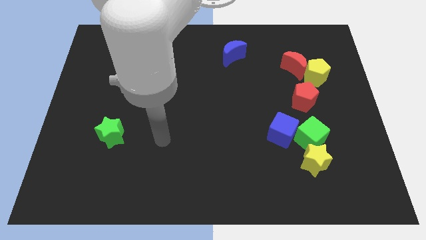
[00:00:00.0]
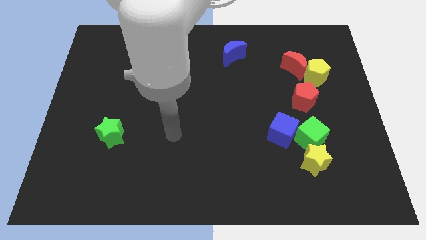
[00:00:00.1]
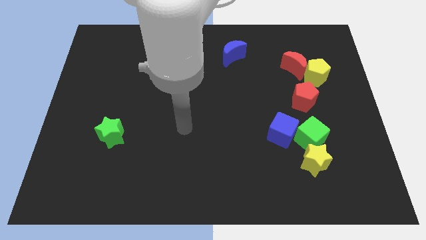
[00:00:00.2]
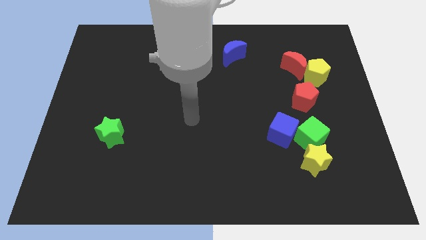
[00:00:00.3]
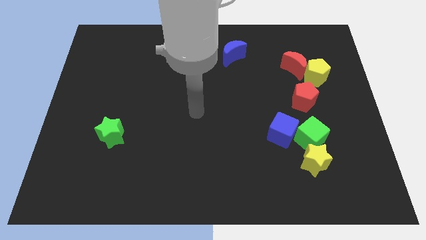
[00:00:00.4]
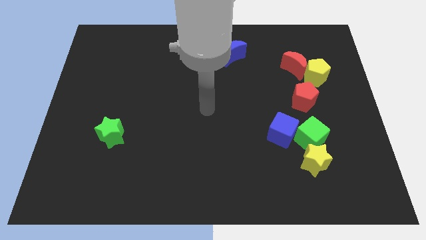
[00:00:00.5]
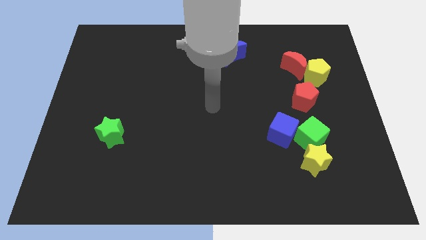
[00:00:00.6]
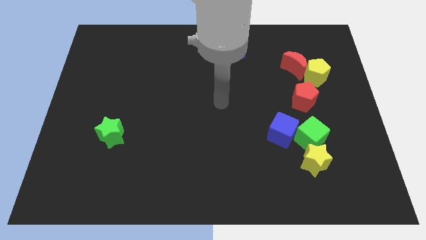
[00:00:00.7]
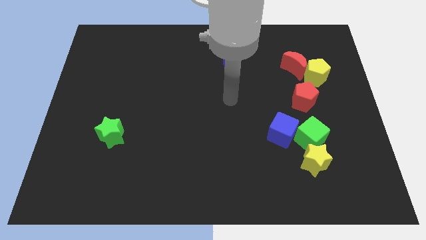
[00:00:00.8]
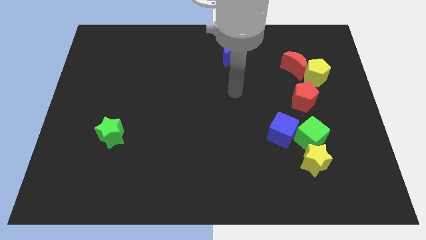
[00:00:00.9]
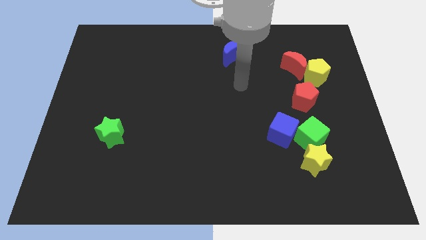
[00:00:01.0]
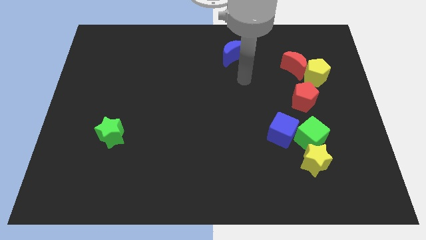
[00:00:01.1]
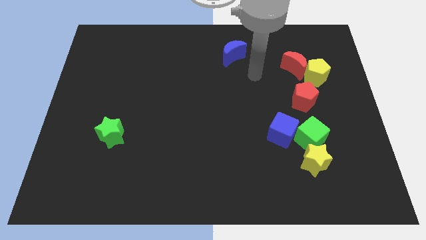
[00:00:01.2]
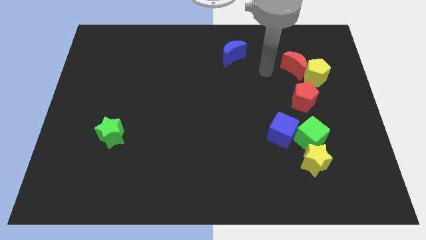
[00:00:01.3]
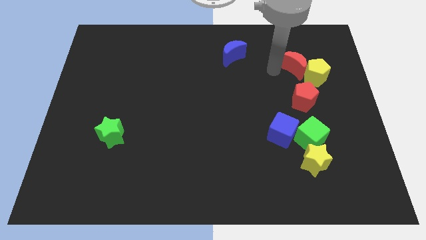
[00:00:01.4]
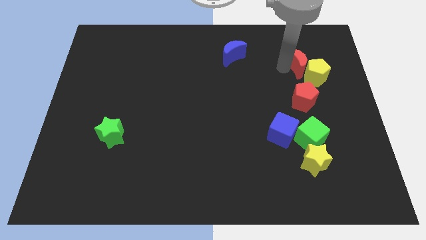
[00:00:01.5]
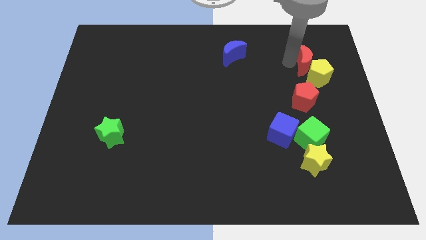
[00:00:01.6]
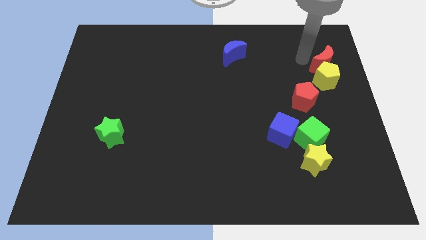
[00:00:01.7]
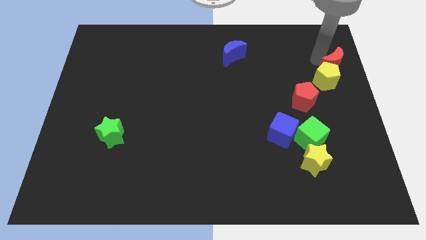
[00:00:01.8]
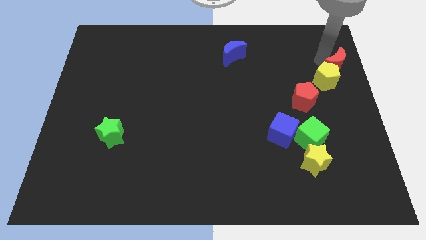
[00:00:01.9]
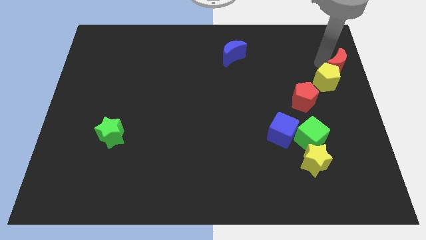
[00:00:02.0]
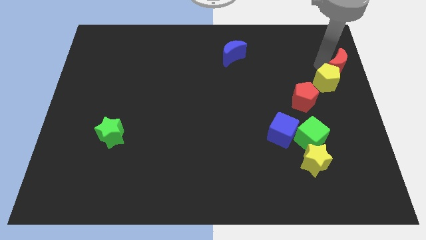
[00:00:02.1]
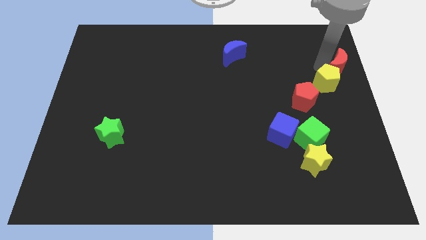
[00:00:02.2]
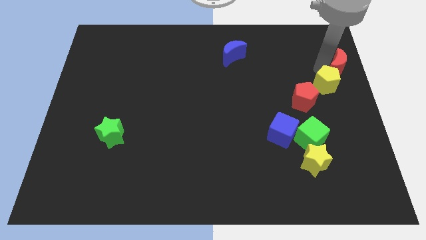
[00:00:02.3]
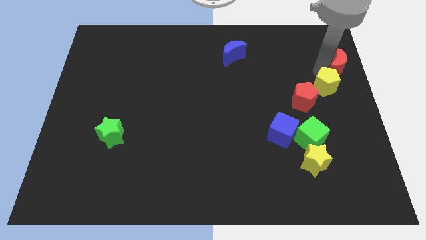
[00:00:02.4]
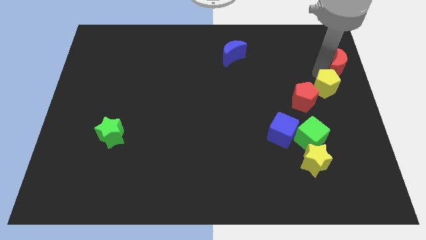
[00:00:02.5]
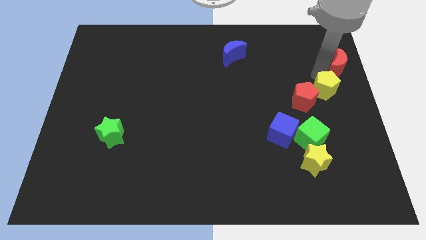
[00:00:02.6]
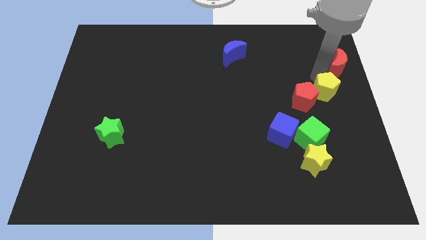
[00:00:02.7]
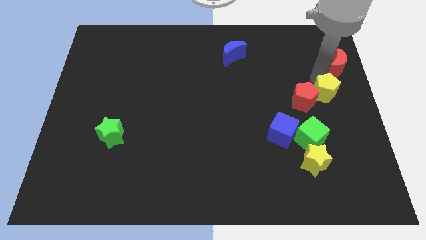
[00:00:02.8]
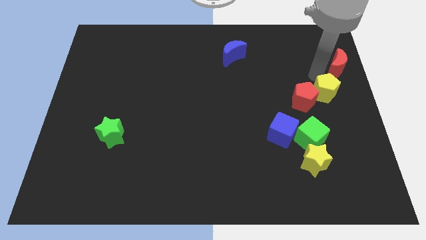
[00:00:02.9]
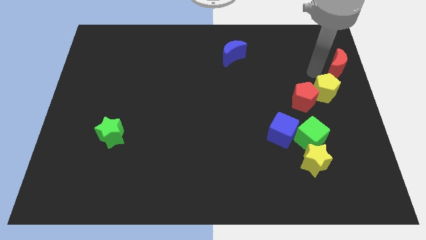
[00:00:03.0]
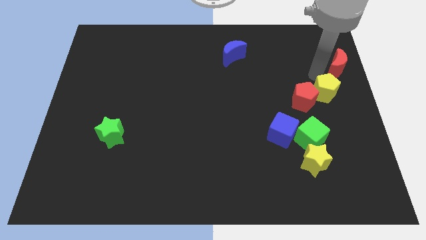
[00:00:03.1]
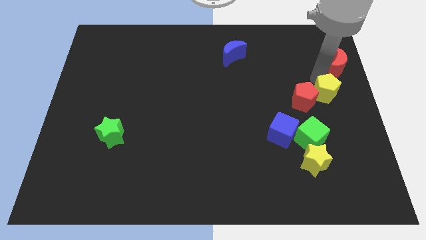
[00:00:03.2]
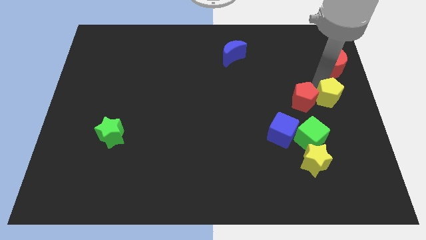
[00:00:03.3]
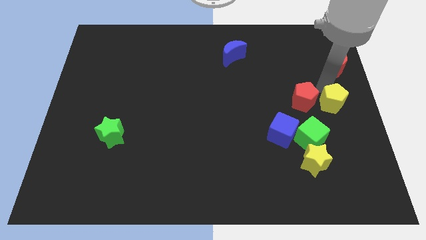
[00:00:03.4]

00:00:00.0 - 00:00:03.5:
move the yellow pentagon down a little bit

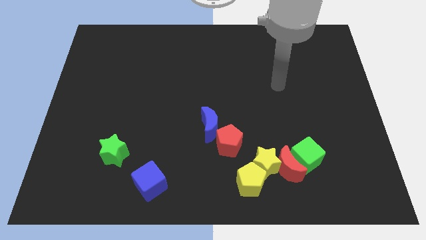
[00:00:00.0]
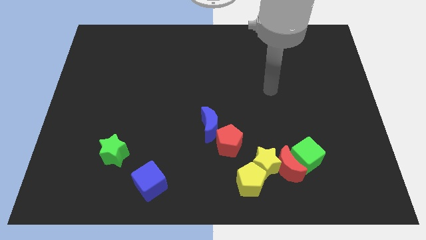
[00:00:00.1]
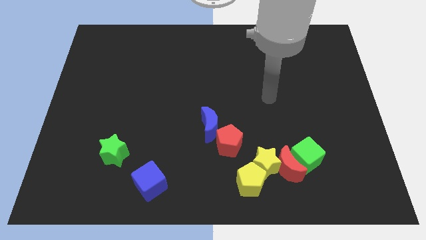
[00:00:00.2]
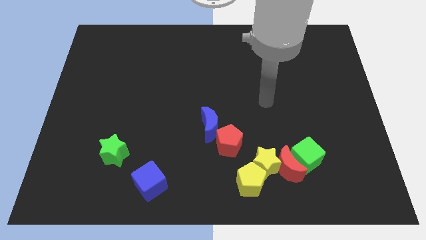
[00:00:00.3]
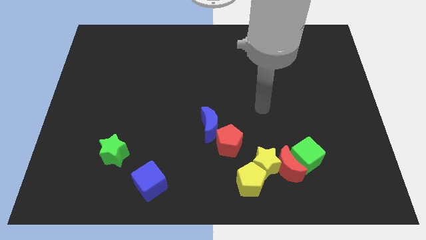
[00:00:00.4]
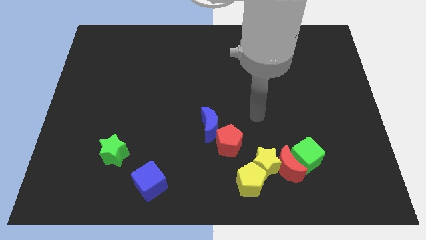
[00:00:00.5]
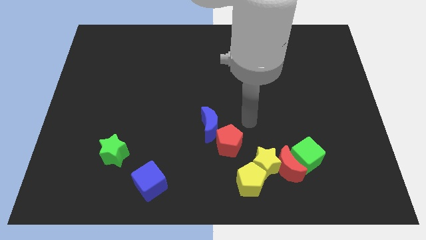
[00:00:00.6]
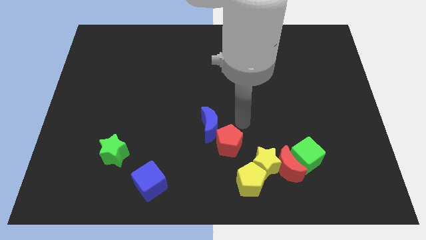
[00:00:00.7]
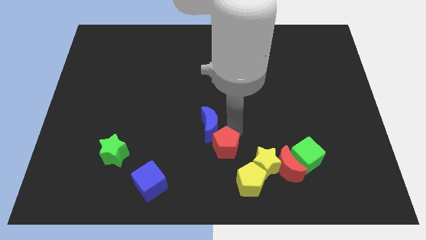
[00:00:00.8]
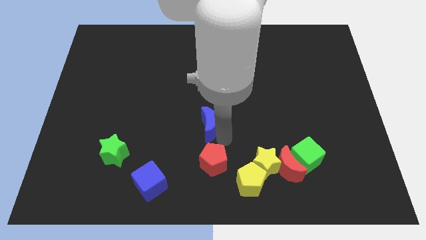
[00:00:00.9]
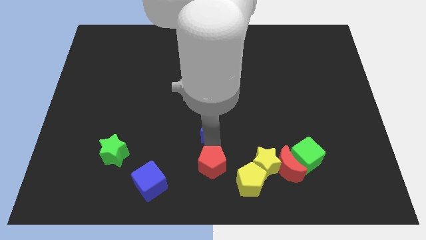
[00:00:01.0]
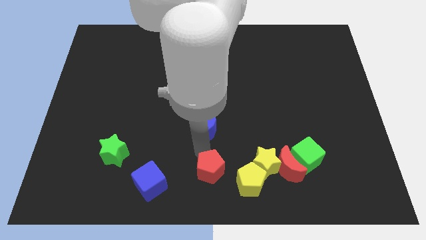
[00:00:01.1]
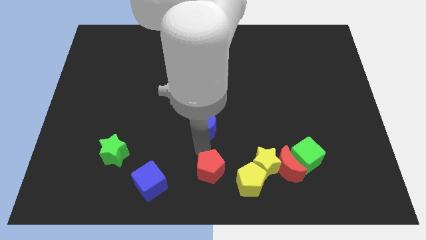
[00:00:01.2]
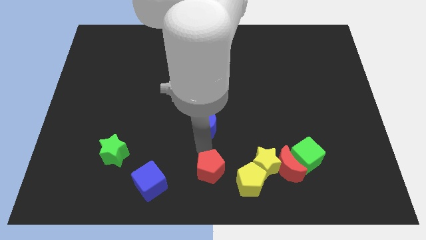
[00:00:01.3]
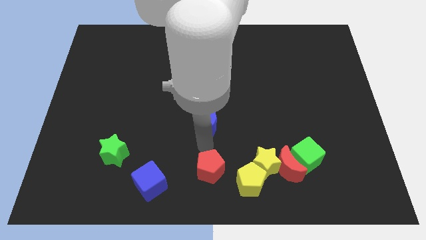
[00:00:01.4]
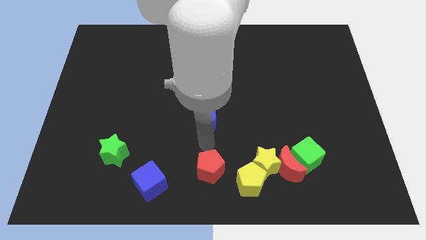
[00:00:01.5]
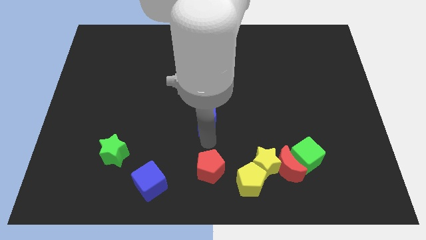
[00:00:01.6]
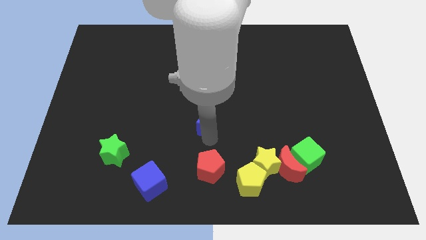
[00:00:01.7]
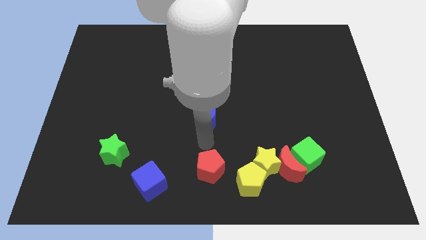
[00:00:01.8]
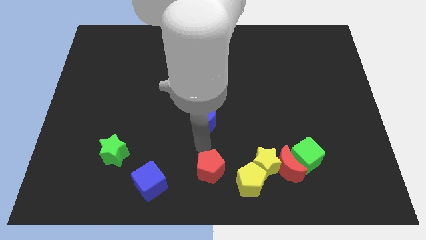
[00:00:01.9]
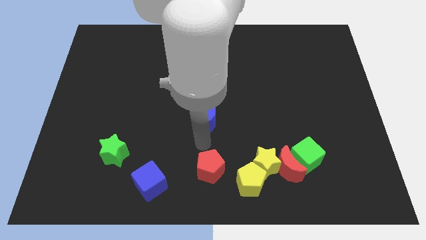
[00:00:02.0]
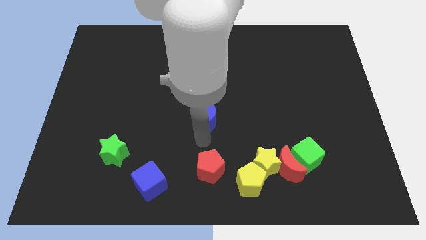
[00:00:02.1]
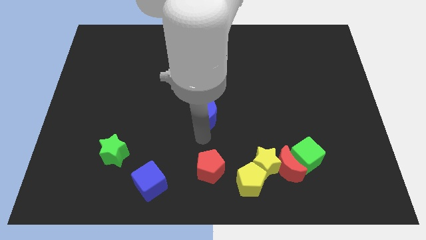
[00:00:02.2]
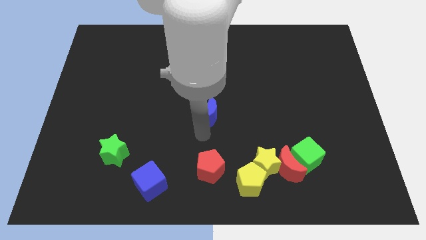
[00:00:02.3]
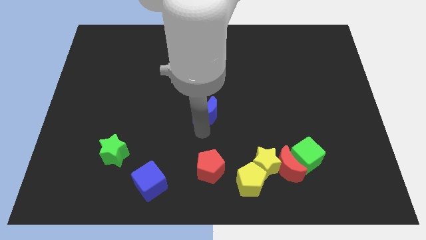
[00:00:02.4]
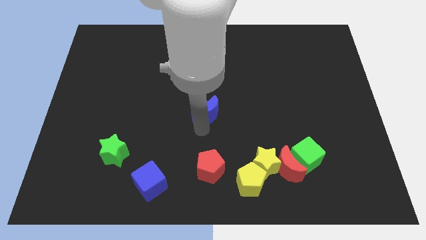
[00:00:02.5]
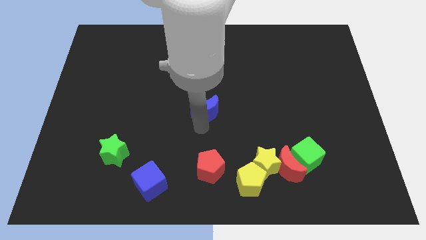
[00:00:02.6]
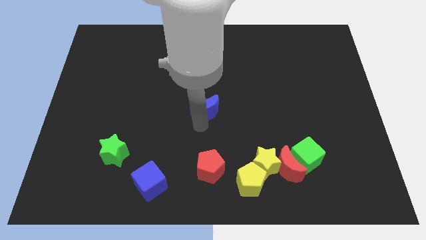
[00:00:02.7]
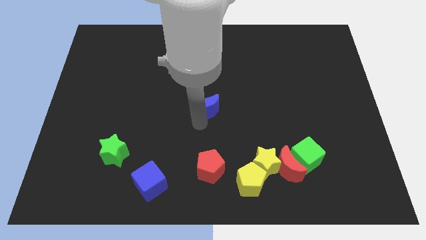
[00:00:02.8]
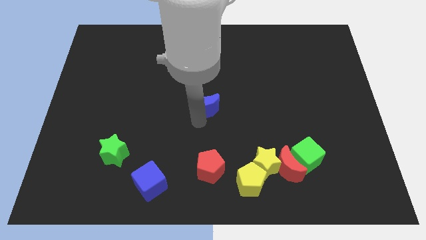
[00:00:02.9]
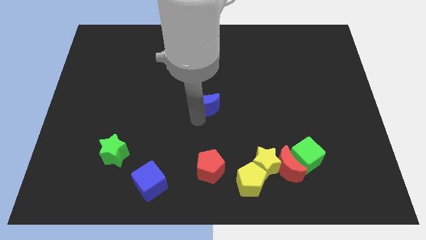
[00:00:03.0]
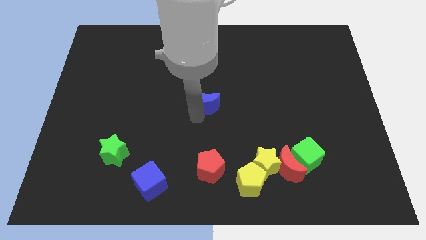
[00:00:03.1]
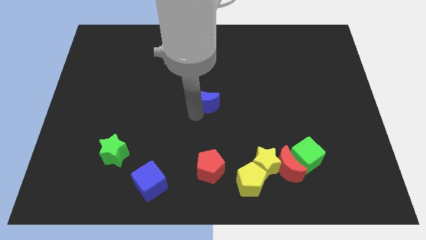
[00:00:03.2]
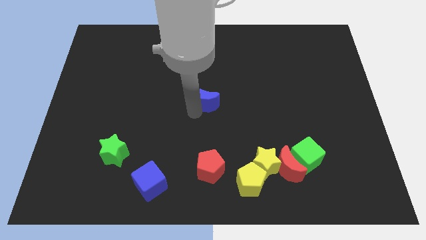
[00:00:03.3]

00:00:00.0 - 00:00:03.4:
move the blue moon upwards somewhat

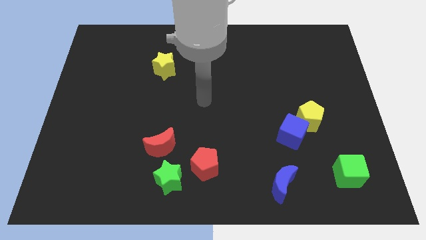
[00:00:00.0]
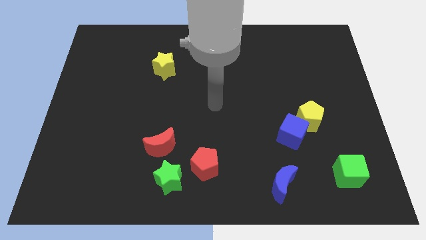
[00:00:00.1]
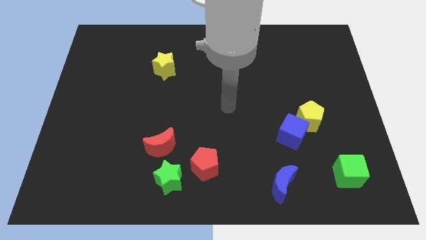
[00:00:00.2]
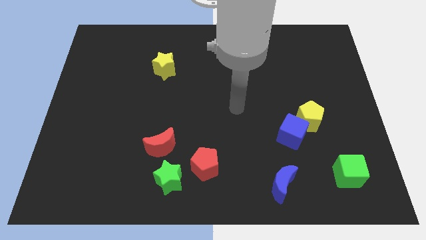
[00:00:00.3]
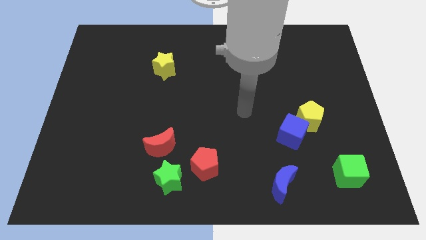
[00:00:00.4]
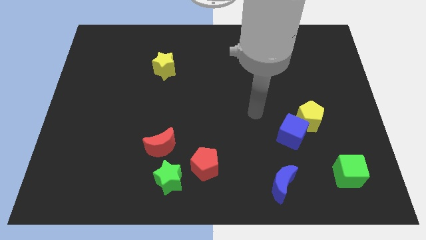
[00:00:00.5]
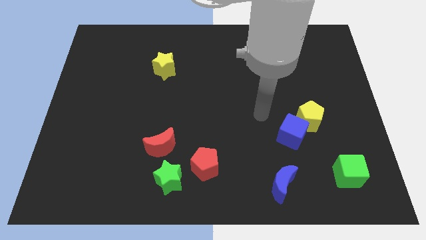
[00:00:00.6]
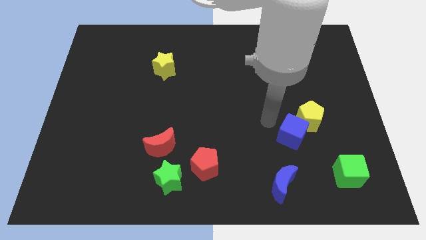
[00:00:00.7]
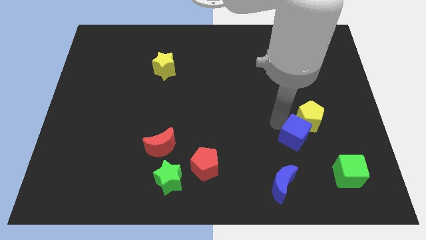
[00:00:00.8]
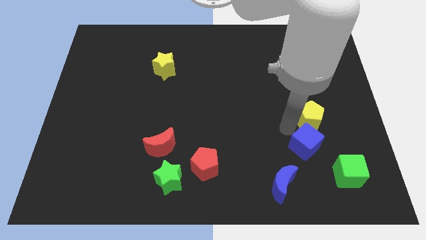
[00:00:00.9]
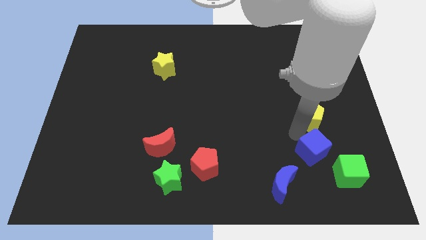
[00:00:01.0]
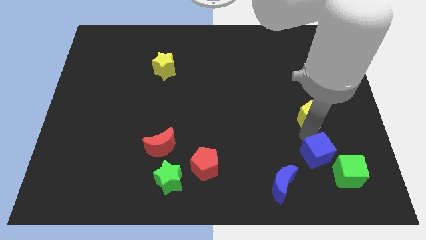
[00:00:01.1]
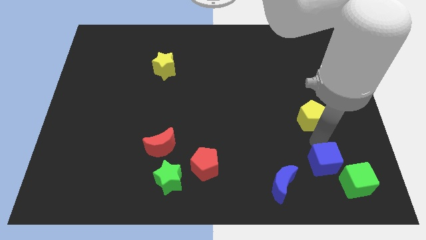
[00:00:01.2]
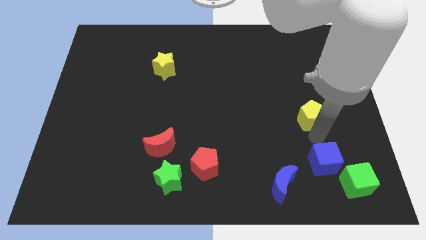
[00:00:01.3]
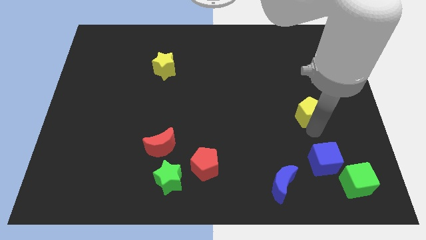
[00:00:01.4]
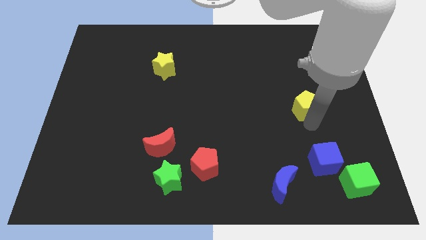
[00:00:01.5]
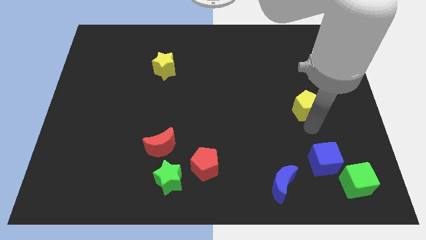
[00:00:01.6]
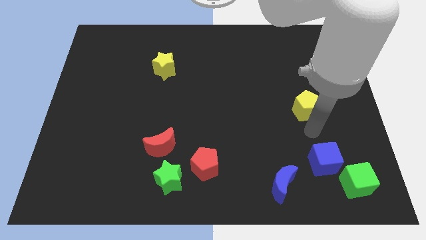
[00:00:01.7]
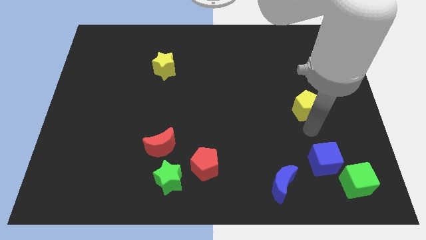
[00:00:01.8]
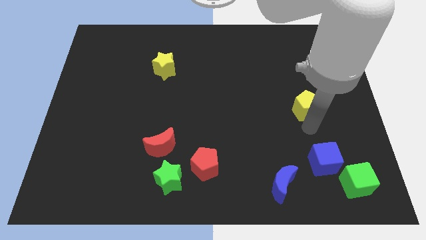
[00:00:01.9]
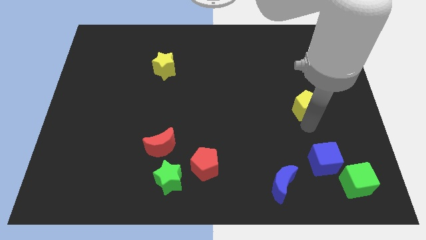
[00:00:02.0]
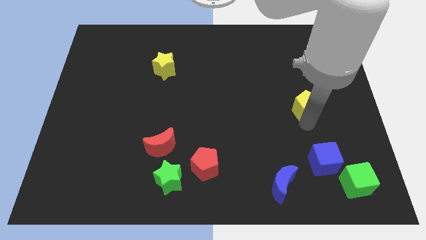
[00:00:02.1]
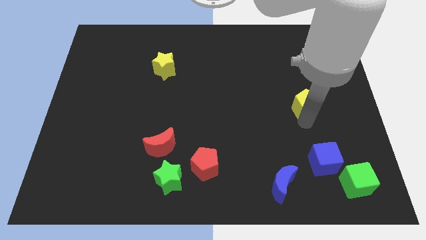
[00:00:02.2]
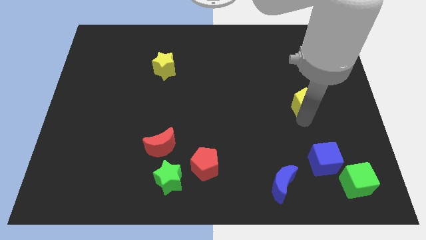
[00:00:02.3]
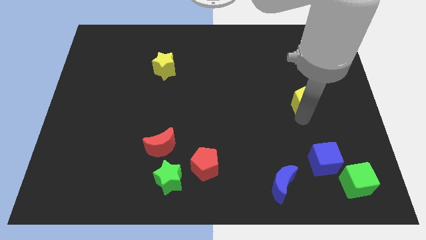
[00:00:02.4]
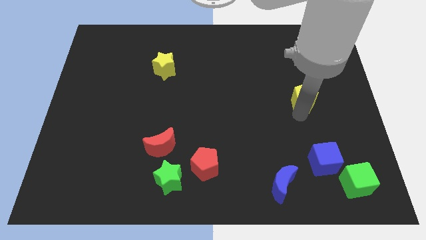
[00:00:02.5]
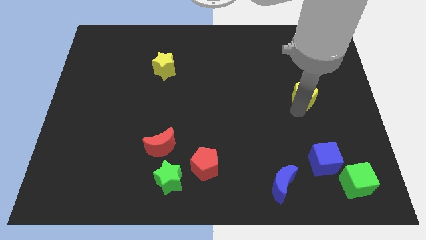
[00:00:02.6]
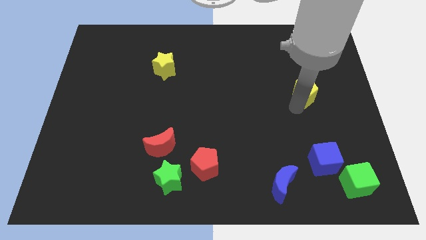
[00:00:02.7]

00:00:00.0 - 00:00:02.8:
slide the yellow pentagon upwards a little
